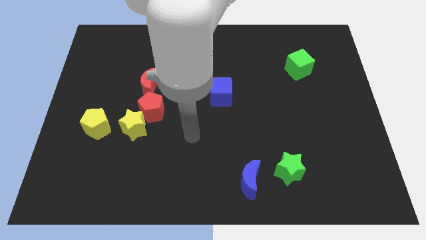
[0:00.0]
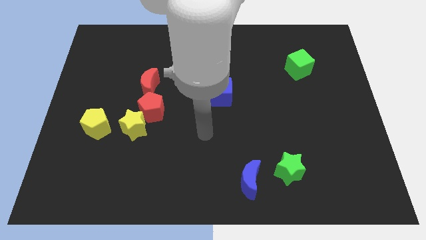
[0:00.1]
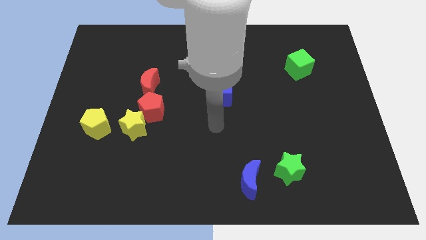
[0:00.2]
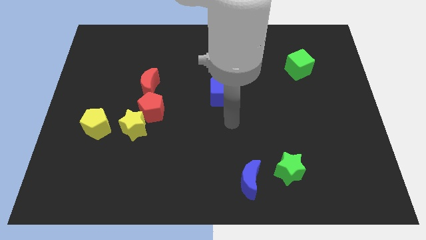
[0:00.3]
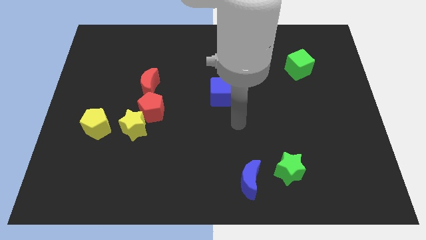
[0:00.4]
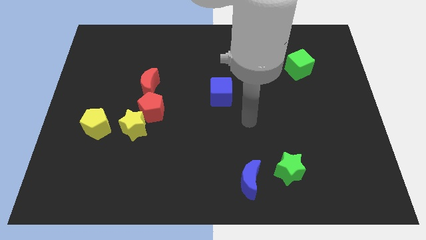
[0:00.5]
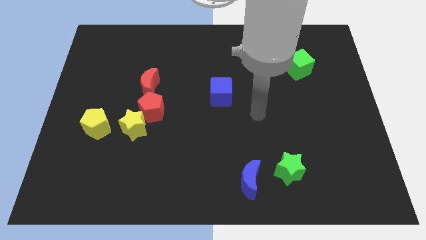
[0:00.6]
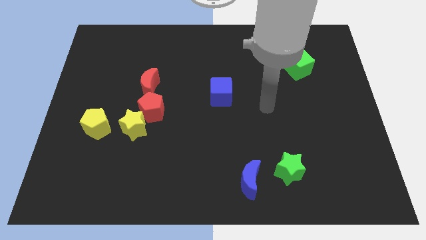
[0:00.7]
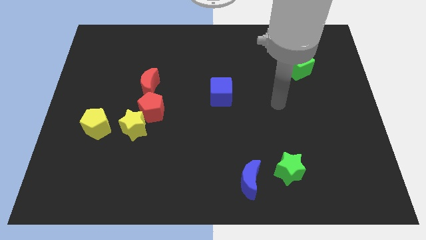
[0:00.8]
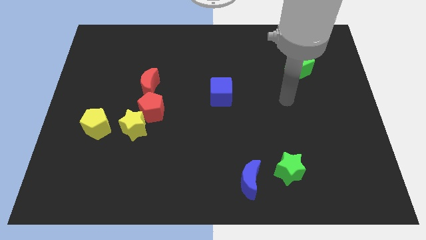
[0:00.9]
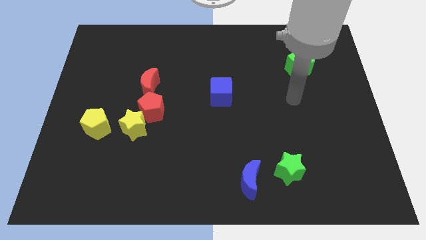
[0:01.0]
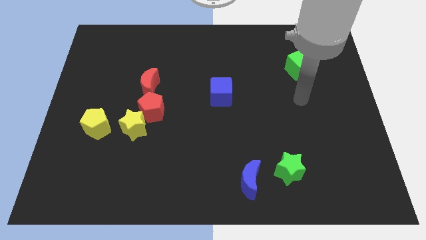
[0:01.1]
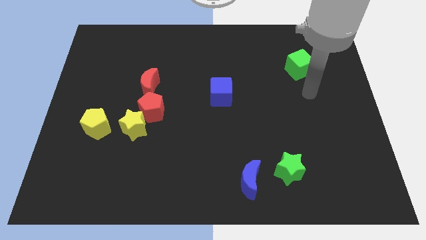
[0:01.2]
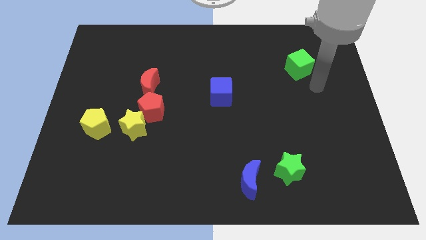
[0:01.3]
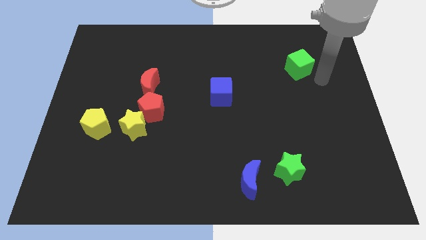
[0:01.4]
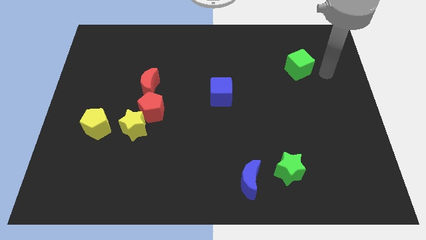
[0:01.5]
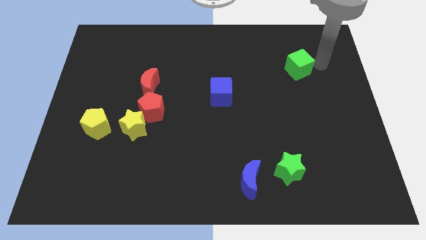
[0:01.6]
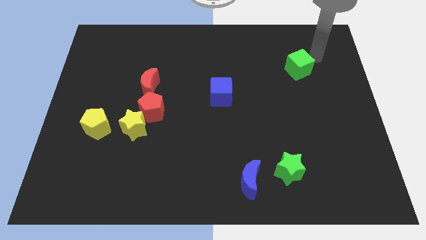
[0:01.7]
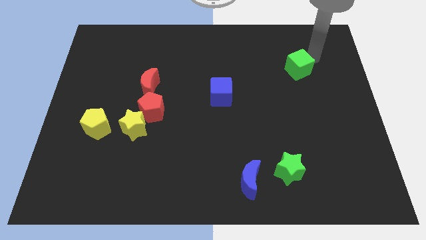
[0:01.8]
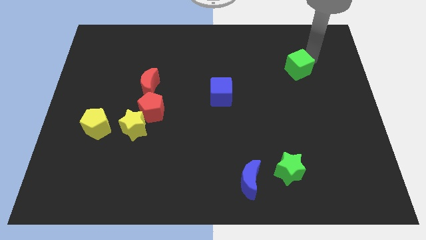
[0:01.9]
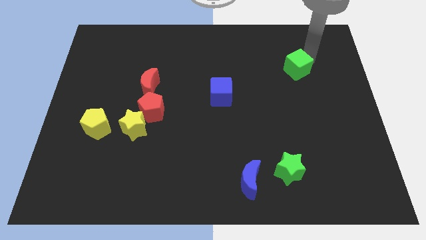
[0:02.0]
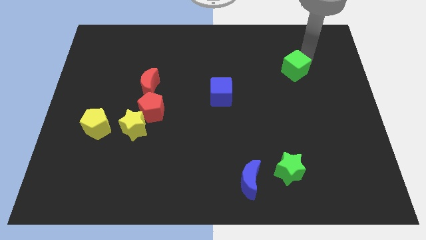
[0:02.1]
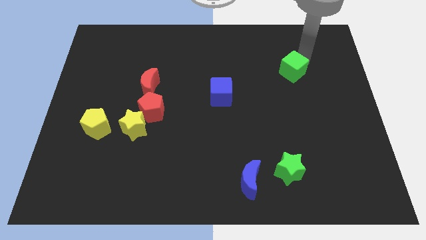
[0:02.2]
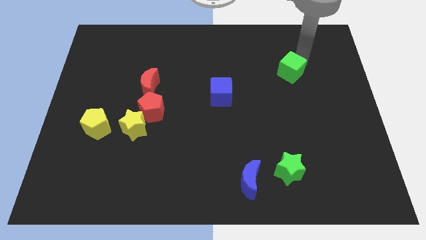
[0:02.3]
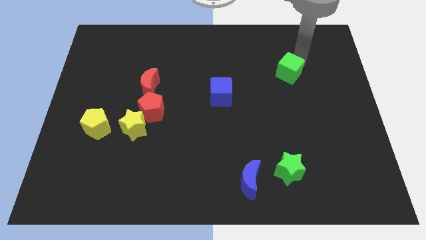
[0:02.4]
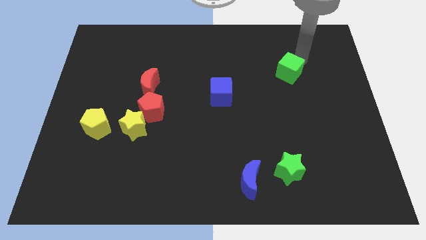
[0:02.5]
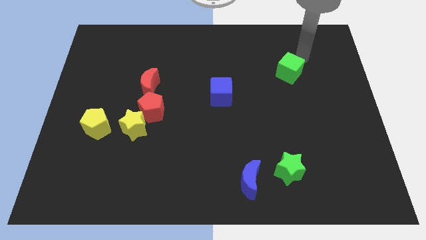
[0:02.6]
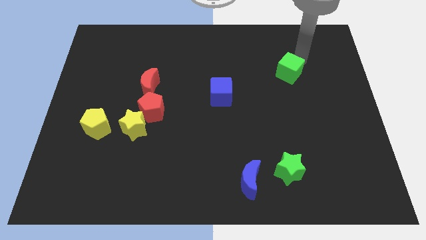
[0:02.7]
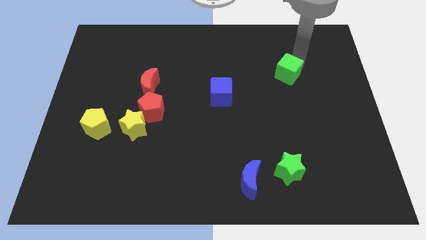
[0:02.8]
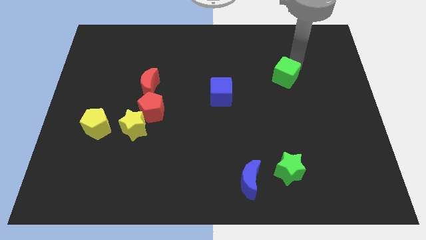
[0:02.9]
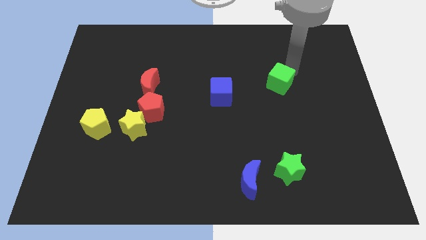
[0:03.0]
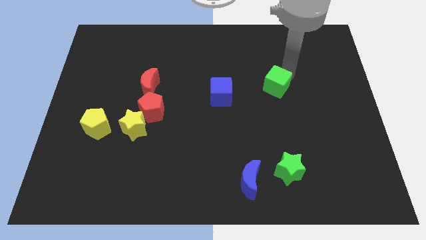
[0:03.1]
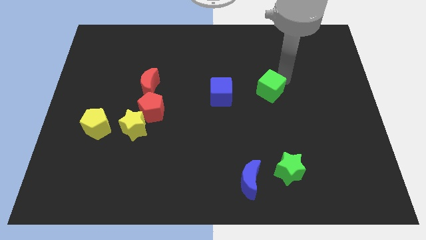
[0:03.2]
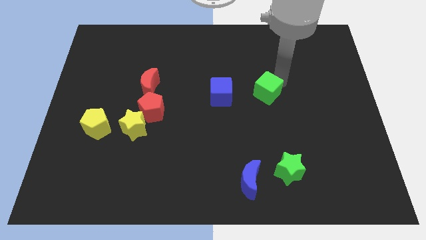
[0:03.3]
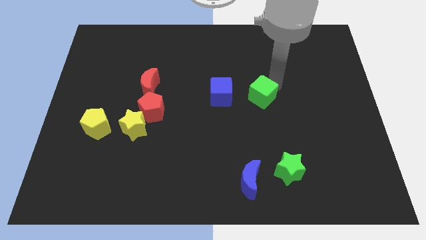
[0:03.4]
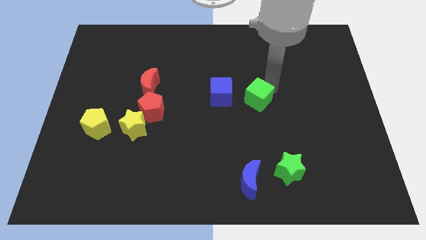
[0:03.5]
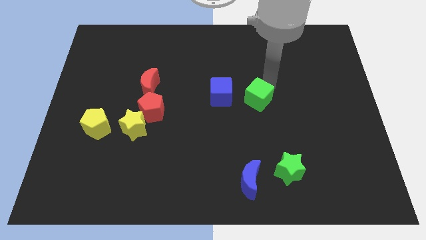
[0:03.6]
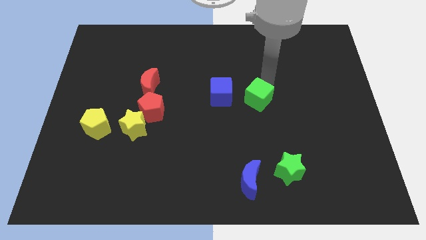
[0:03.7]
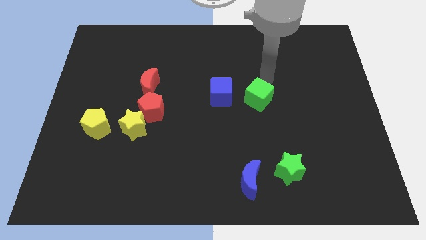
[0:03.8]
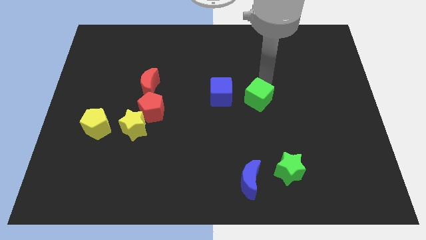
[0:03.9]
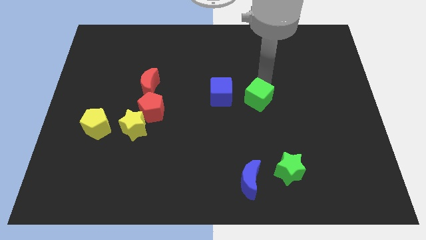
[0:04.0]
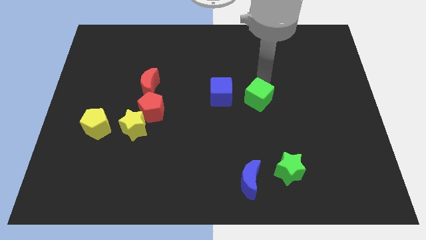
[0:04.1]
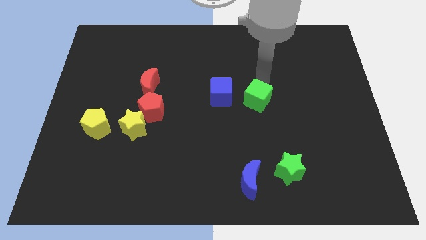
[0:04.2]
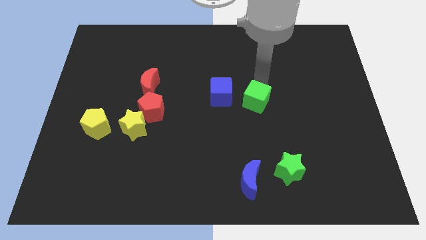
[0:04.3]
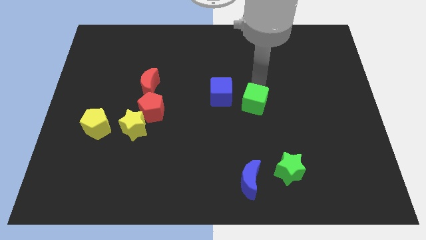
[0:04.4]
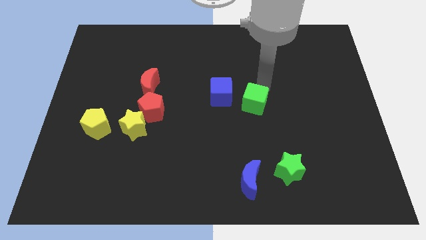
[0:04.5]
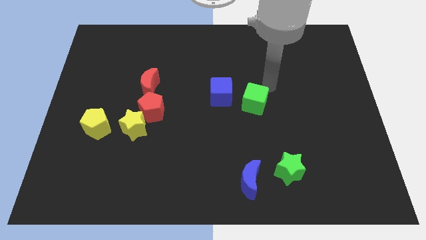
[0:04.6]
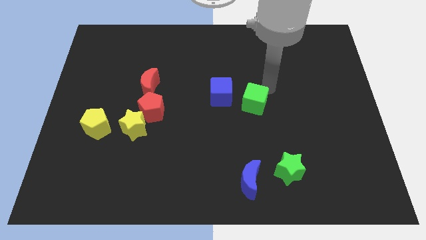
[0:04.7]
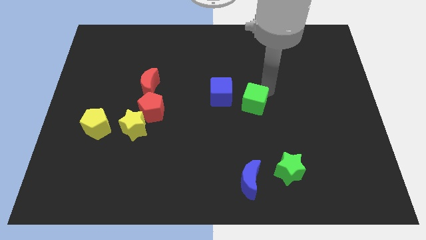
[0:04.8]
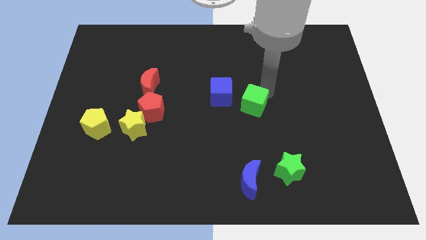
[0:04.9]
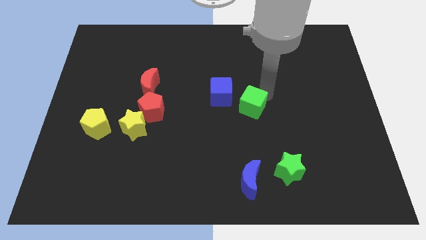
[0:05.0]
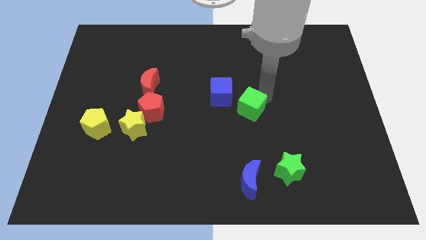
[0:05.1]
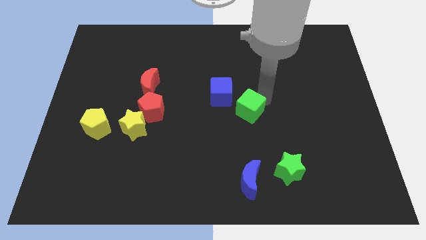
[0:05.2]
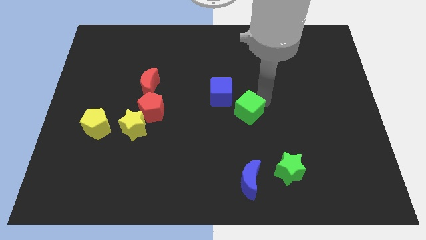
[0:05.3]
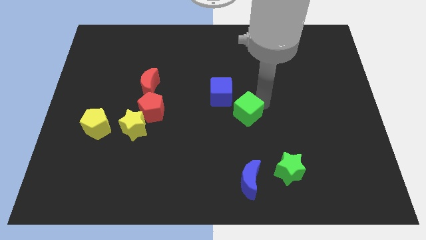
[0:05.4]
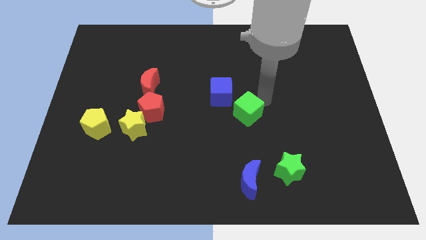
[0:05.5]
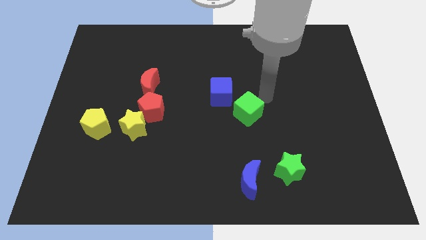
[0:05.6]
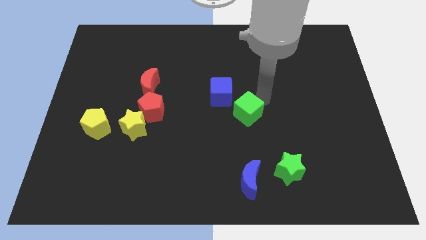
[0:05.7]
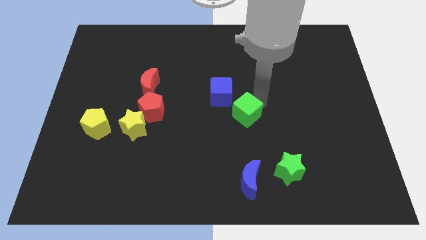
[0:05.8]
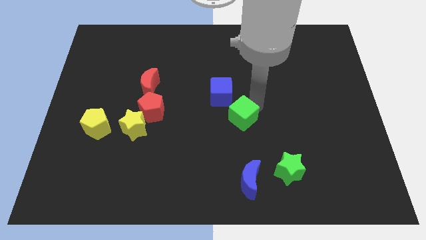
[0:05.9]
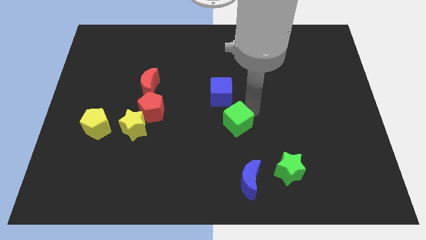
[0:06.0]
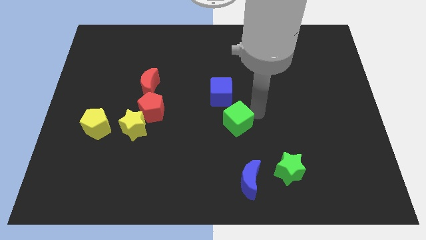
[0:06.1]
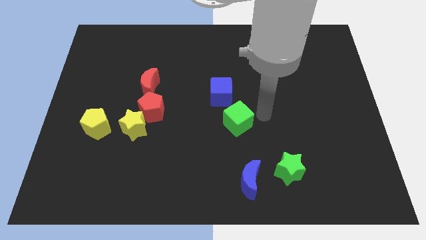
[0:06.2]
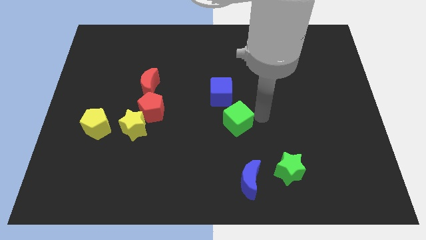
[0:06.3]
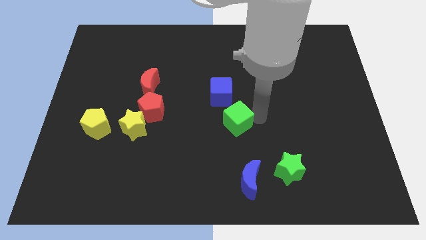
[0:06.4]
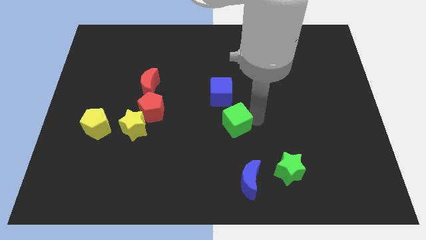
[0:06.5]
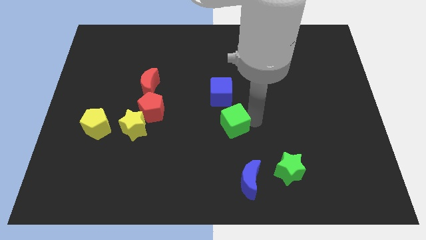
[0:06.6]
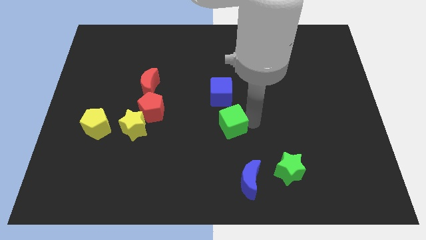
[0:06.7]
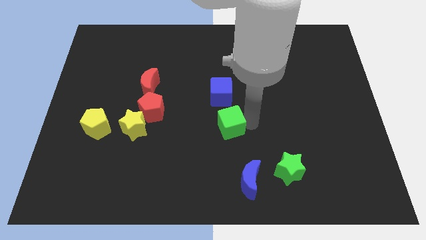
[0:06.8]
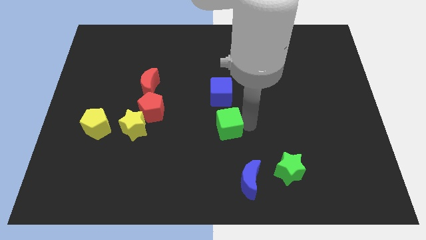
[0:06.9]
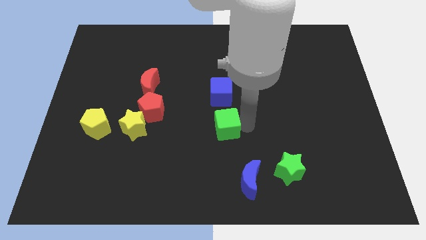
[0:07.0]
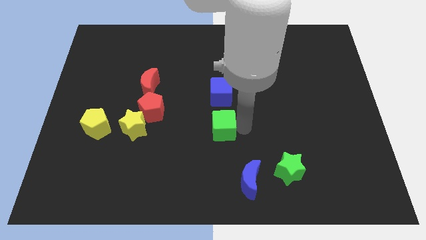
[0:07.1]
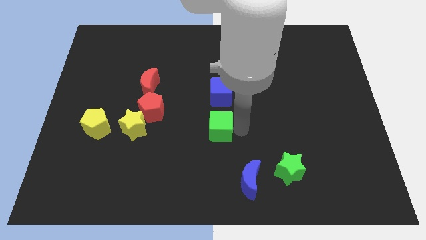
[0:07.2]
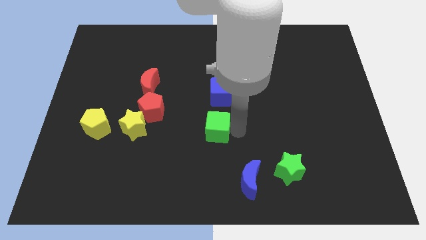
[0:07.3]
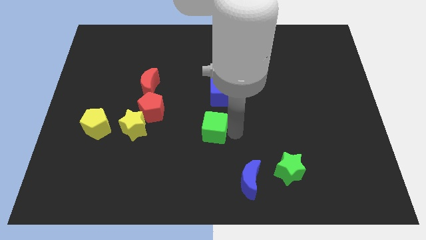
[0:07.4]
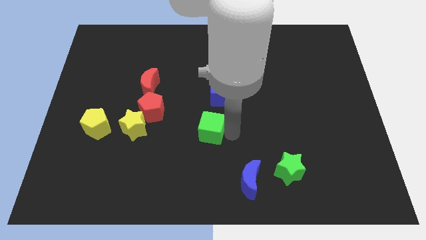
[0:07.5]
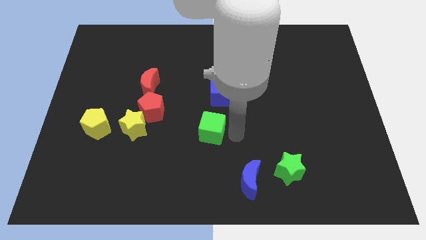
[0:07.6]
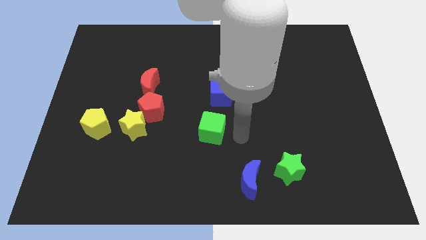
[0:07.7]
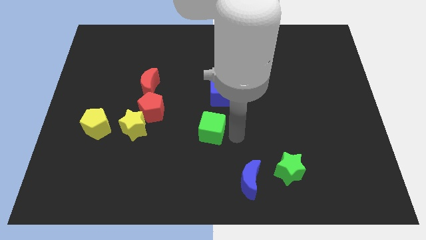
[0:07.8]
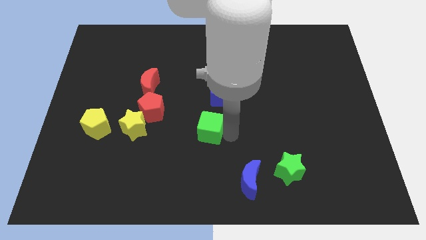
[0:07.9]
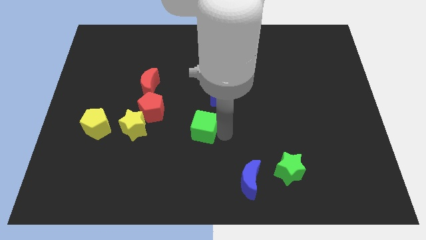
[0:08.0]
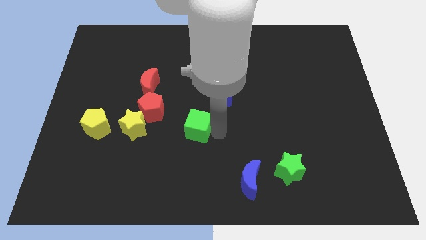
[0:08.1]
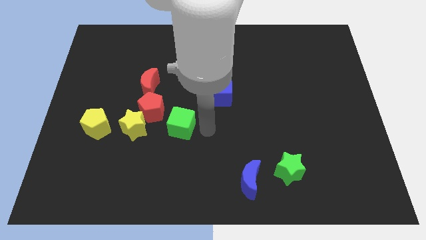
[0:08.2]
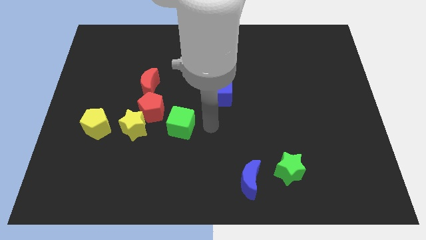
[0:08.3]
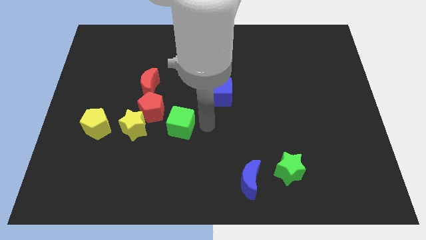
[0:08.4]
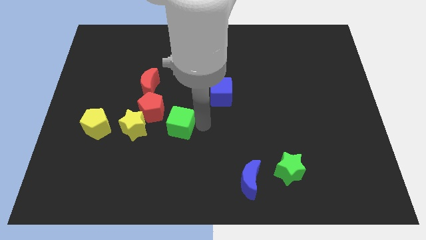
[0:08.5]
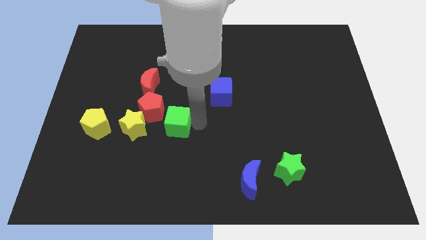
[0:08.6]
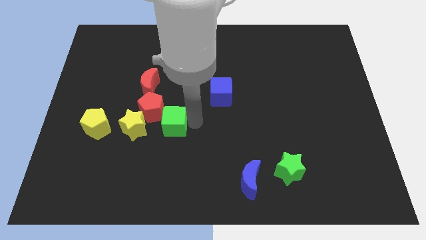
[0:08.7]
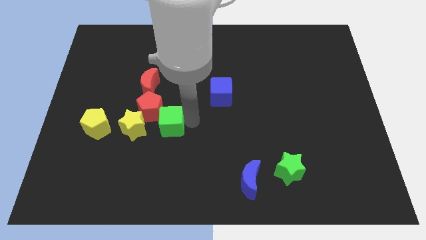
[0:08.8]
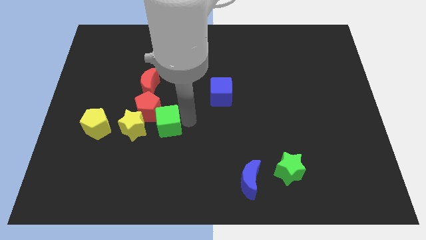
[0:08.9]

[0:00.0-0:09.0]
move the green cube to the right of the yellow pentagon
